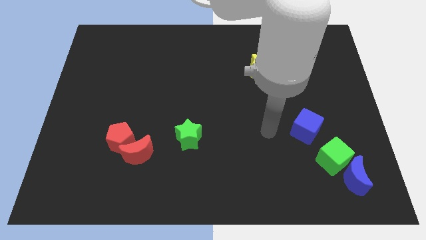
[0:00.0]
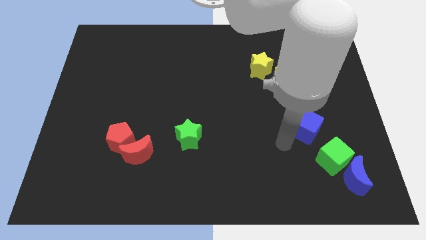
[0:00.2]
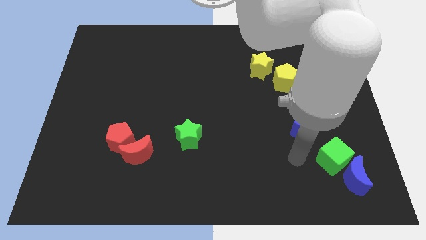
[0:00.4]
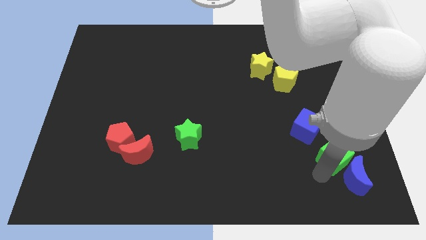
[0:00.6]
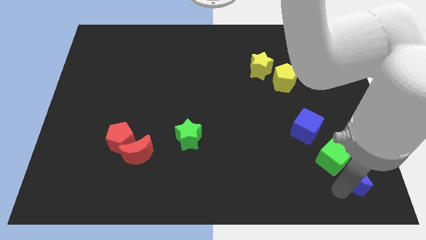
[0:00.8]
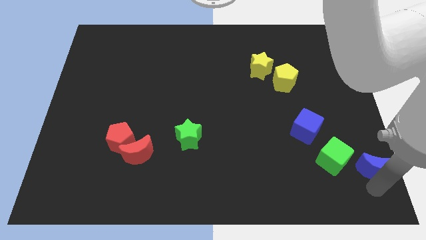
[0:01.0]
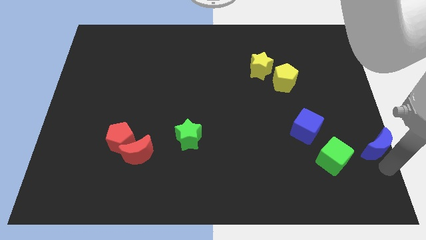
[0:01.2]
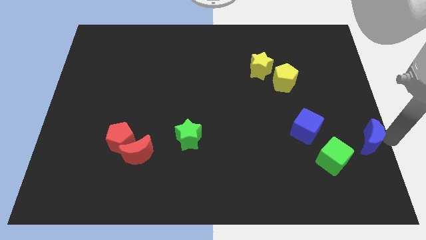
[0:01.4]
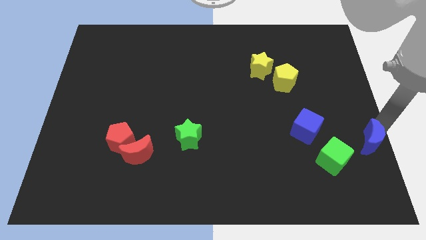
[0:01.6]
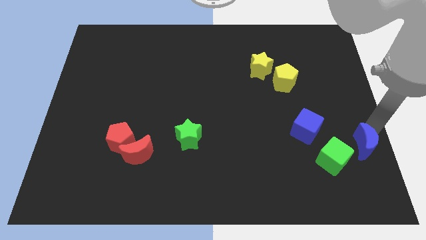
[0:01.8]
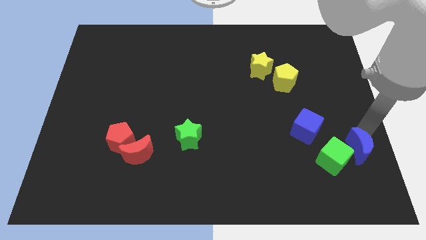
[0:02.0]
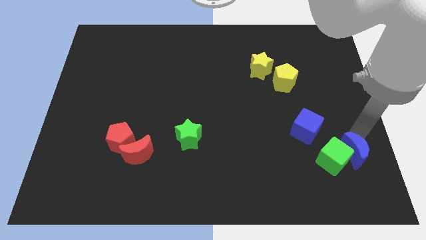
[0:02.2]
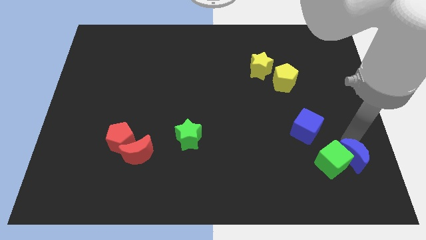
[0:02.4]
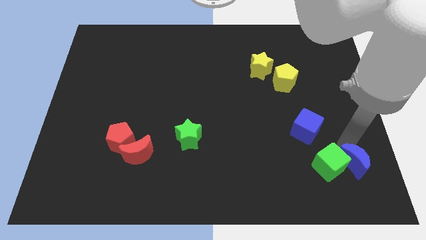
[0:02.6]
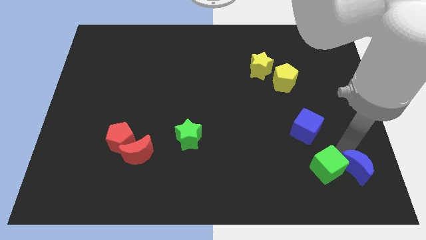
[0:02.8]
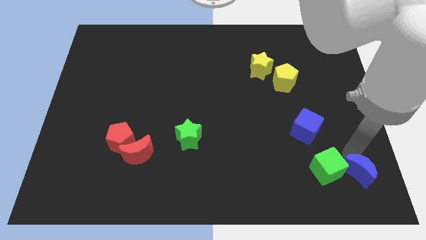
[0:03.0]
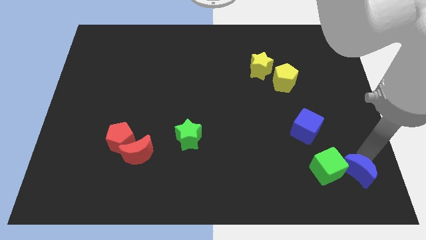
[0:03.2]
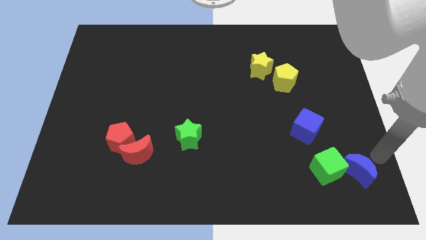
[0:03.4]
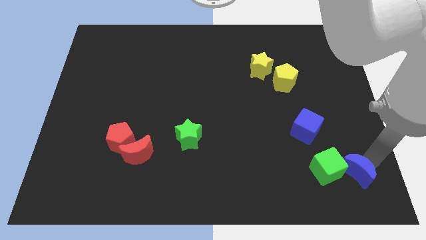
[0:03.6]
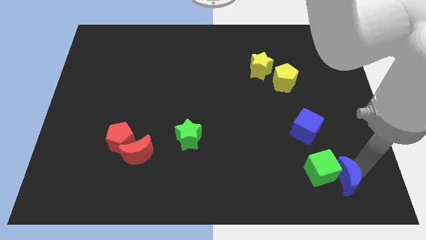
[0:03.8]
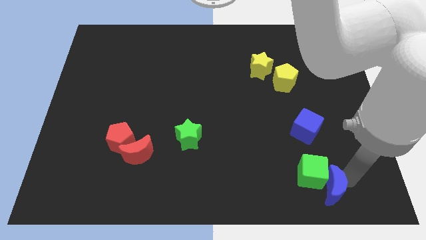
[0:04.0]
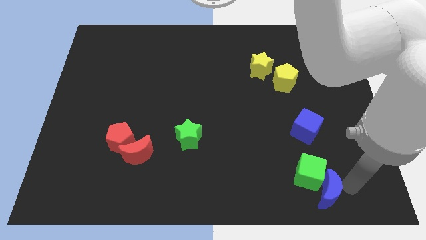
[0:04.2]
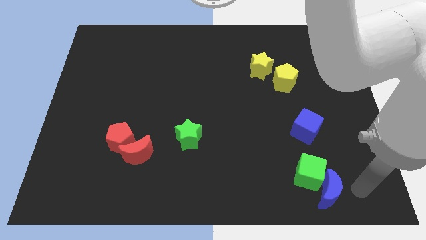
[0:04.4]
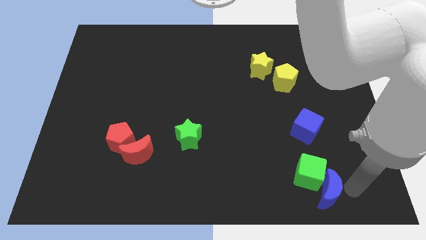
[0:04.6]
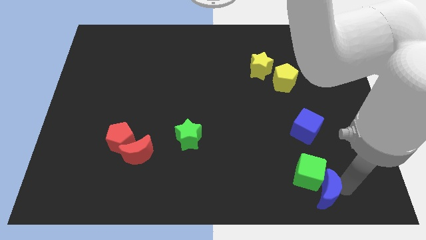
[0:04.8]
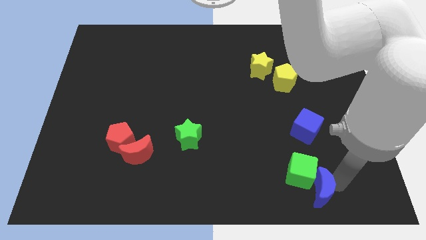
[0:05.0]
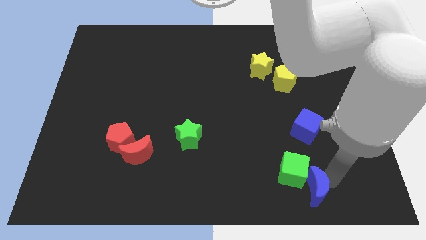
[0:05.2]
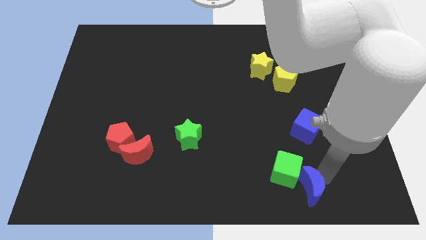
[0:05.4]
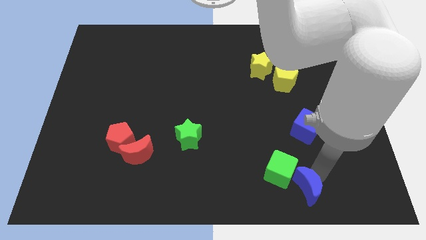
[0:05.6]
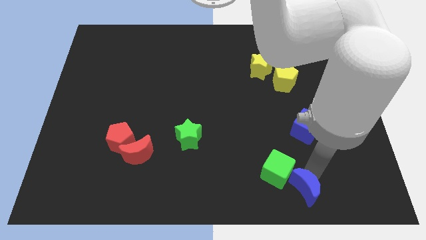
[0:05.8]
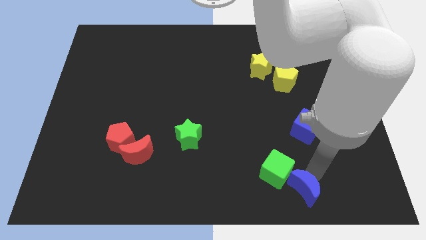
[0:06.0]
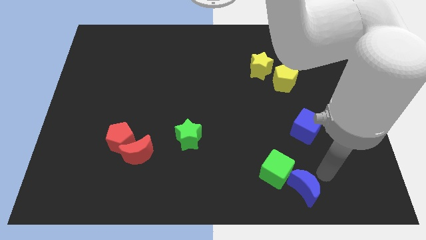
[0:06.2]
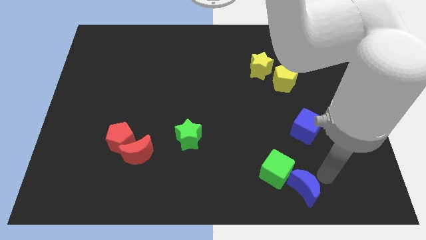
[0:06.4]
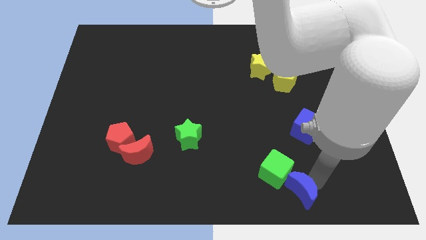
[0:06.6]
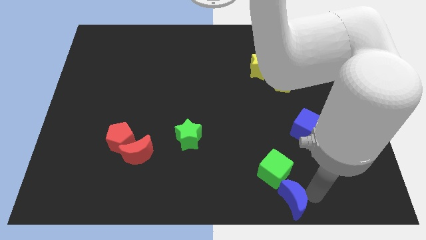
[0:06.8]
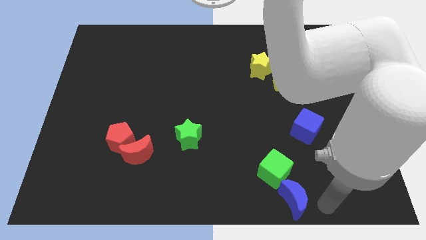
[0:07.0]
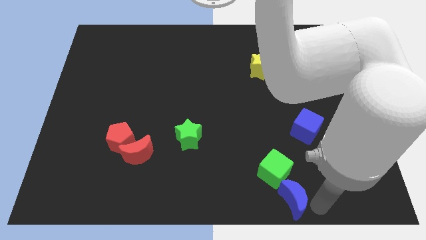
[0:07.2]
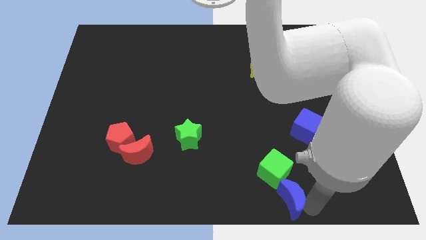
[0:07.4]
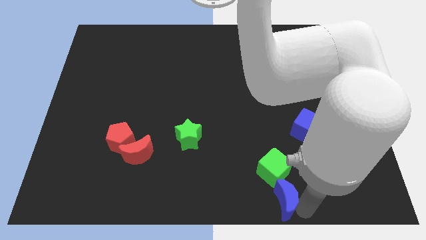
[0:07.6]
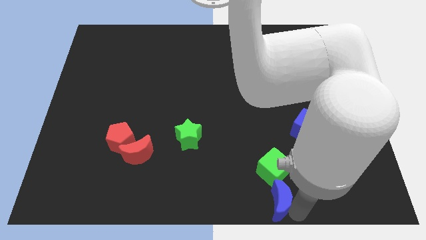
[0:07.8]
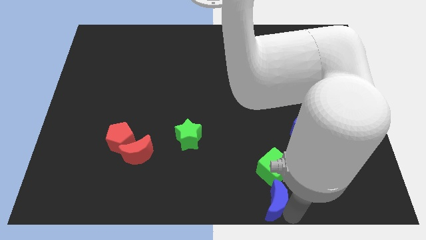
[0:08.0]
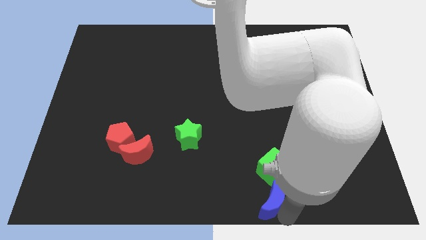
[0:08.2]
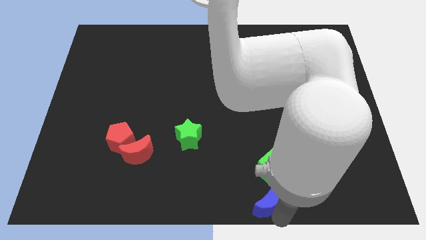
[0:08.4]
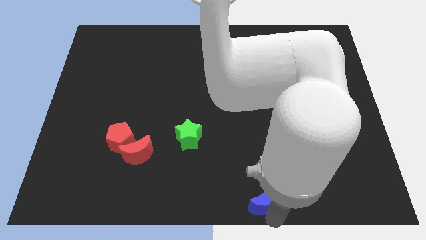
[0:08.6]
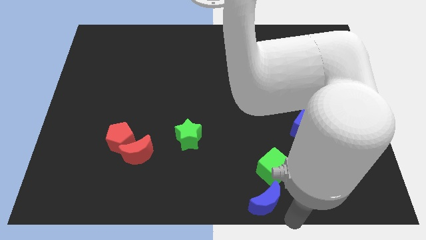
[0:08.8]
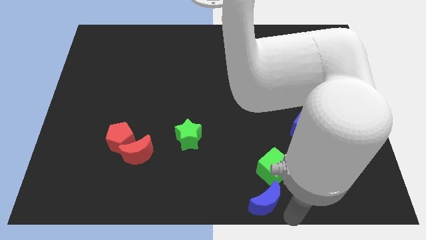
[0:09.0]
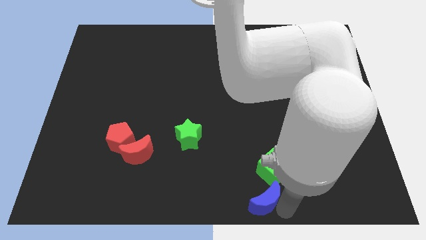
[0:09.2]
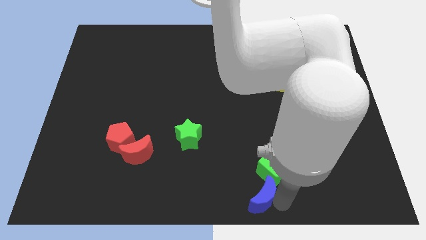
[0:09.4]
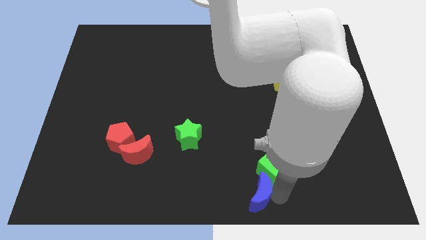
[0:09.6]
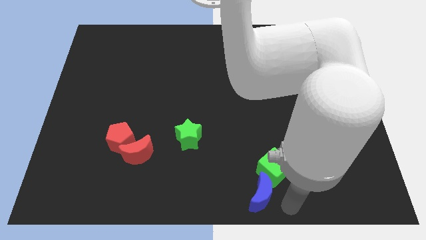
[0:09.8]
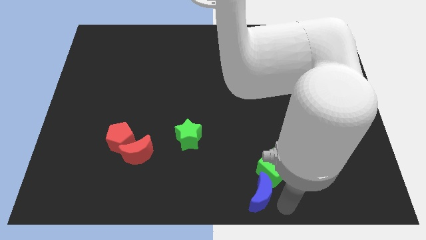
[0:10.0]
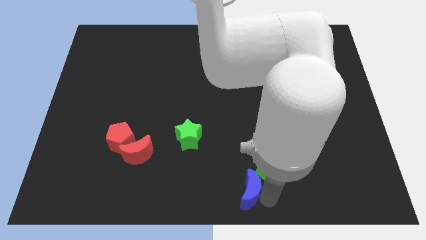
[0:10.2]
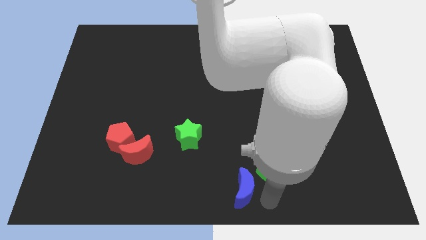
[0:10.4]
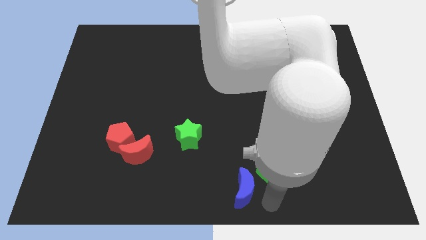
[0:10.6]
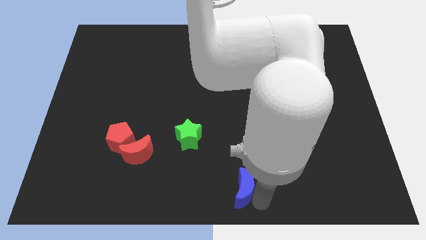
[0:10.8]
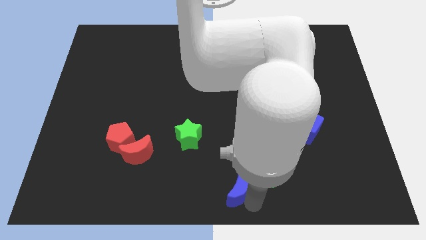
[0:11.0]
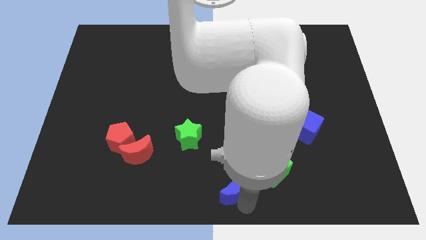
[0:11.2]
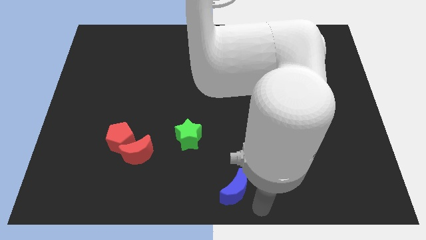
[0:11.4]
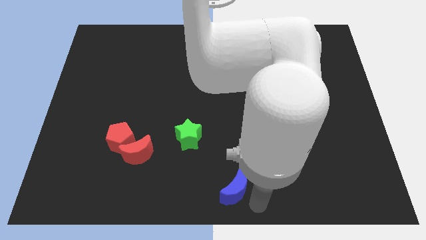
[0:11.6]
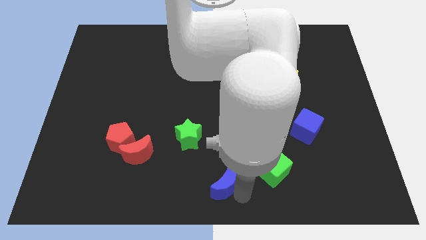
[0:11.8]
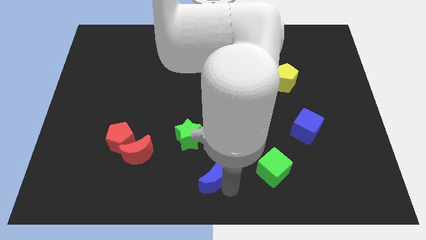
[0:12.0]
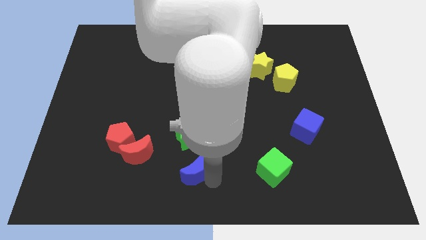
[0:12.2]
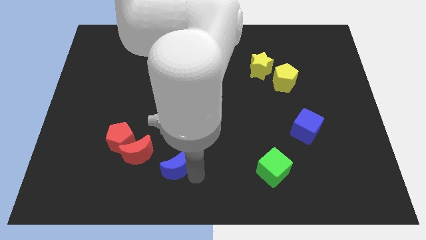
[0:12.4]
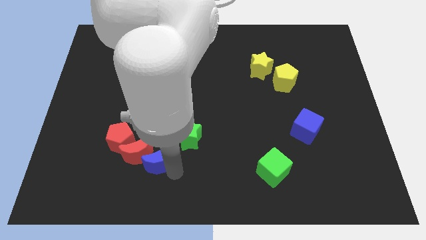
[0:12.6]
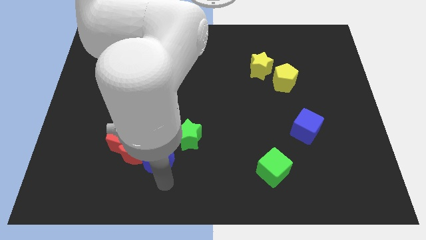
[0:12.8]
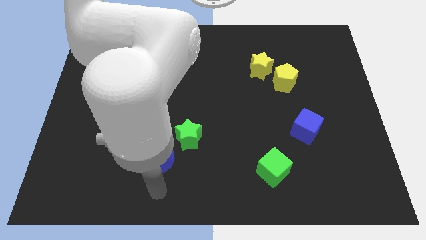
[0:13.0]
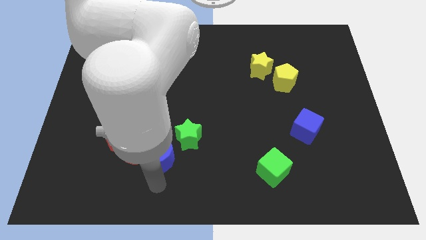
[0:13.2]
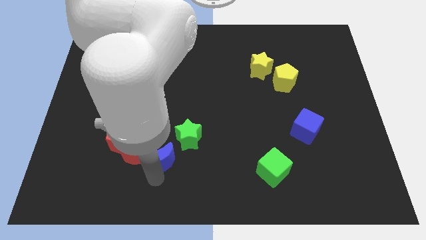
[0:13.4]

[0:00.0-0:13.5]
slide the blue moon to the top right of the red moon

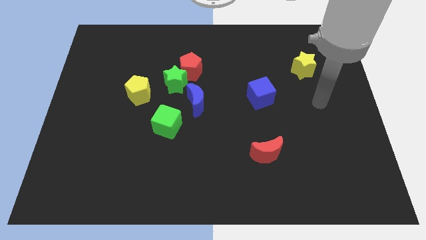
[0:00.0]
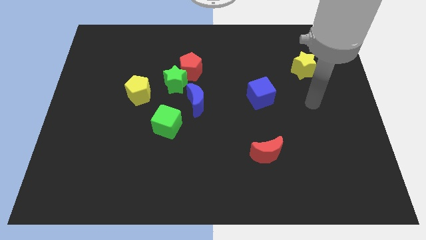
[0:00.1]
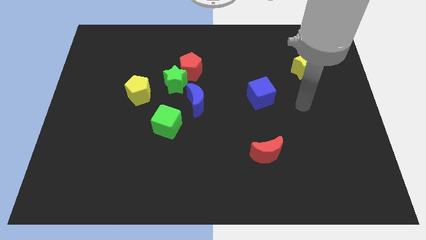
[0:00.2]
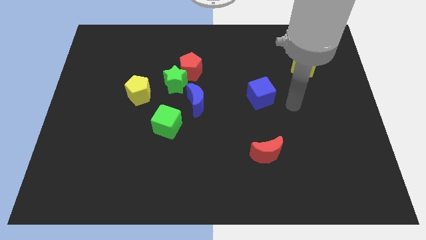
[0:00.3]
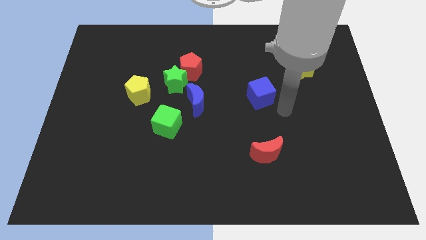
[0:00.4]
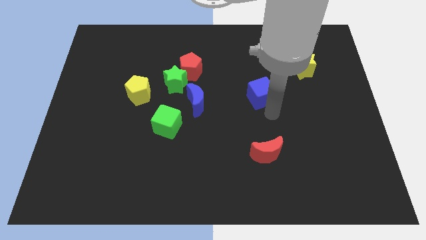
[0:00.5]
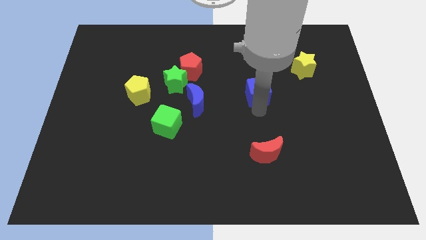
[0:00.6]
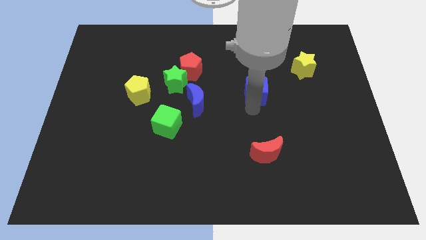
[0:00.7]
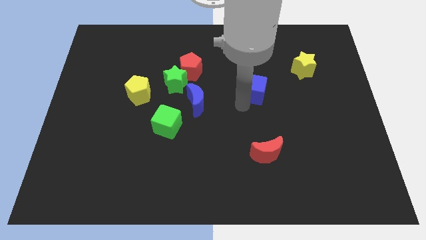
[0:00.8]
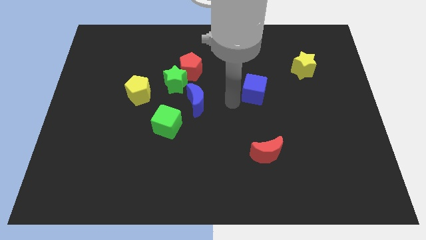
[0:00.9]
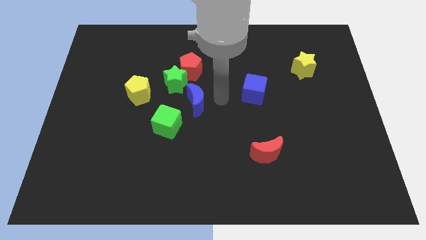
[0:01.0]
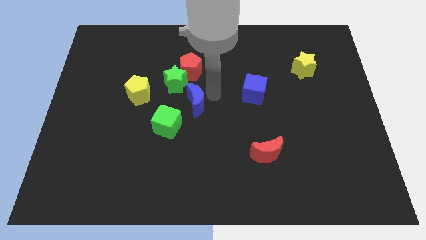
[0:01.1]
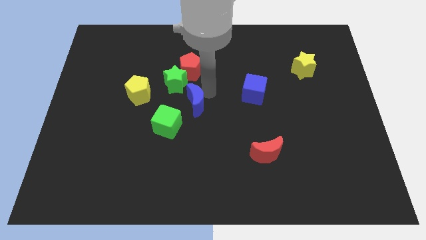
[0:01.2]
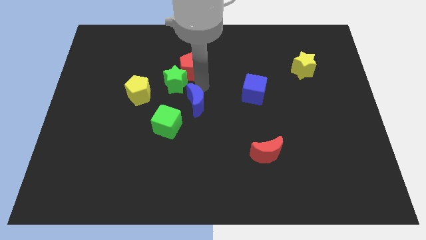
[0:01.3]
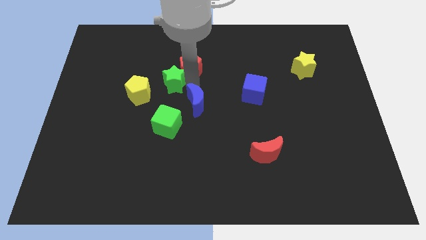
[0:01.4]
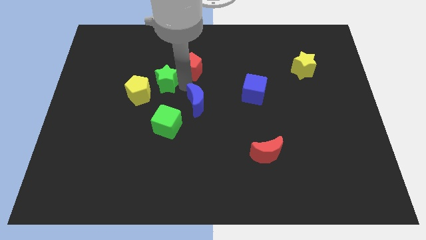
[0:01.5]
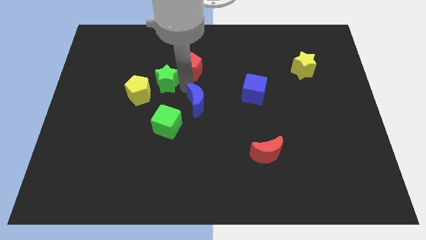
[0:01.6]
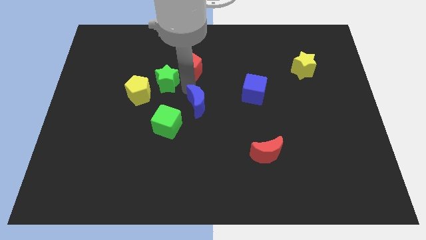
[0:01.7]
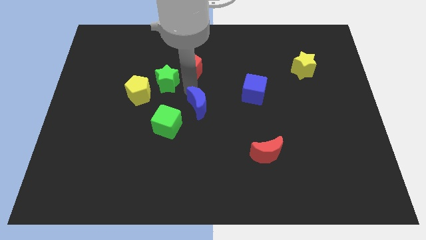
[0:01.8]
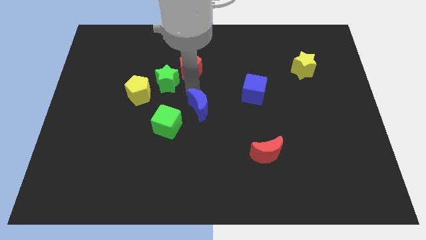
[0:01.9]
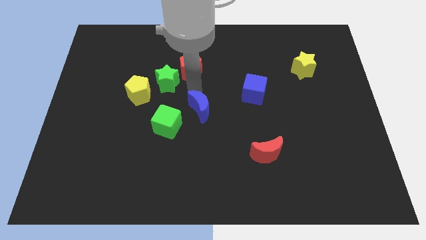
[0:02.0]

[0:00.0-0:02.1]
slide the blue moon right of the green cube
